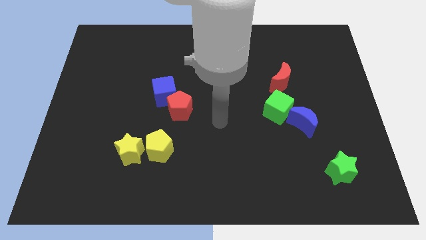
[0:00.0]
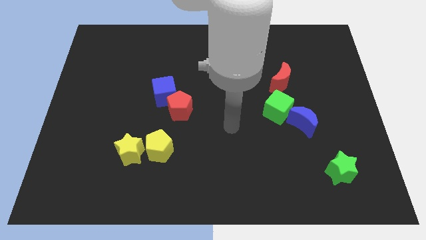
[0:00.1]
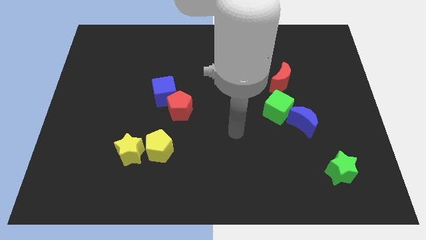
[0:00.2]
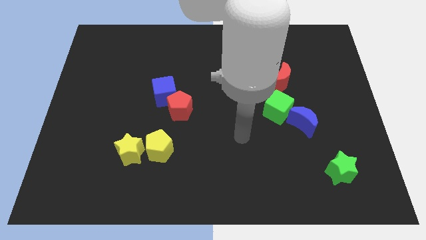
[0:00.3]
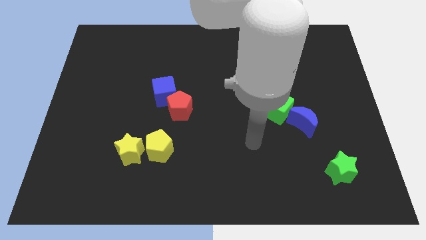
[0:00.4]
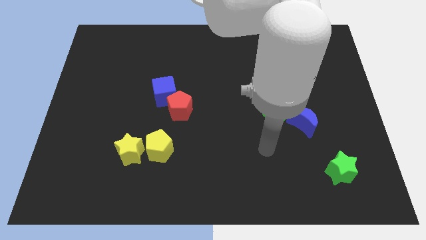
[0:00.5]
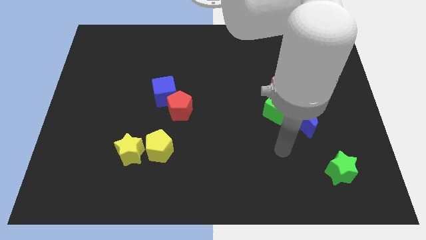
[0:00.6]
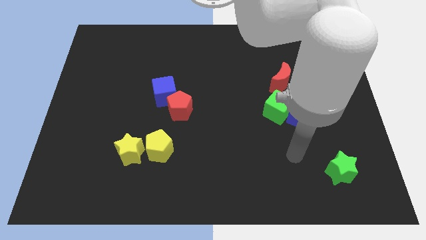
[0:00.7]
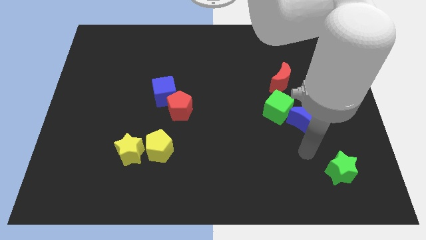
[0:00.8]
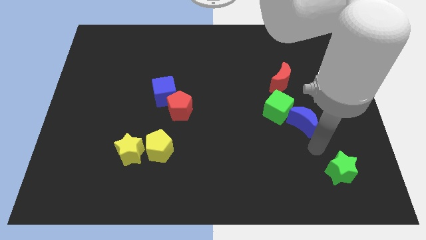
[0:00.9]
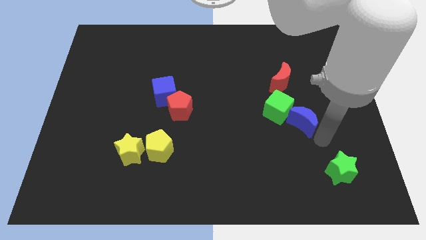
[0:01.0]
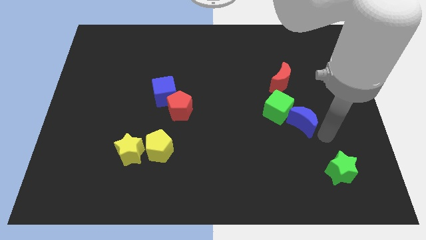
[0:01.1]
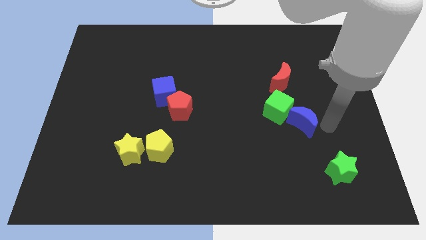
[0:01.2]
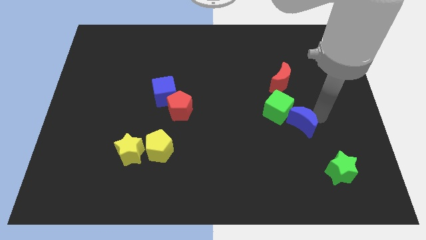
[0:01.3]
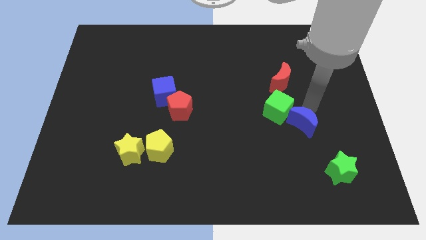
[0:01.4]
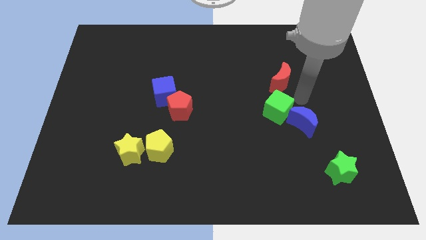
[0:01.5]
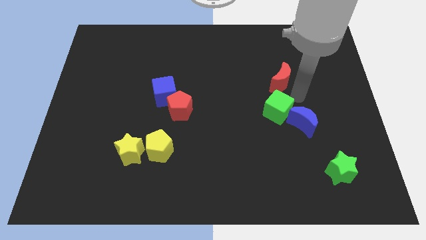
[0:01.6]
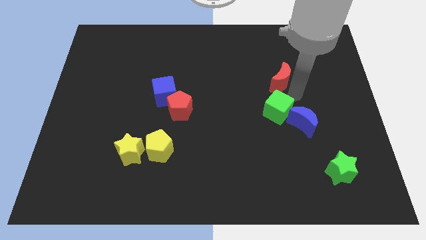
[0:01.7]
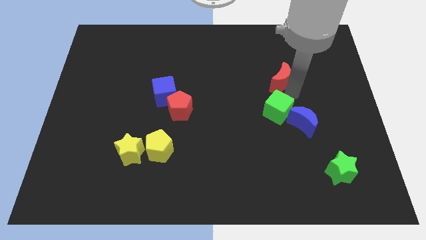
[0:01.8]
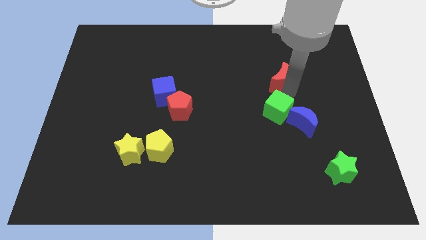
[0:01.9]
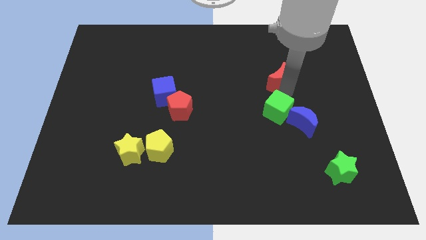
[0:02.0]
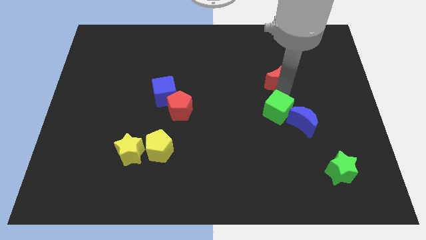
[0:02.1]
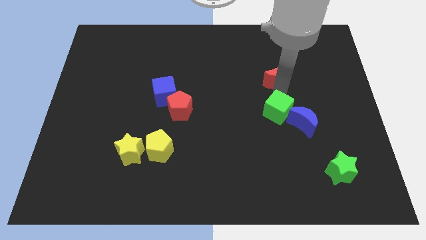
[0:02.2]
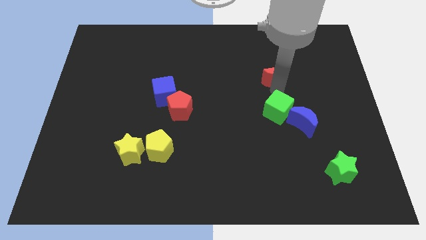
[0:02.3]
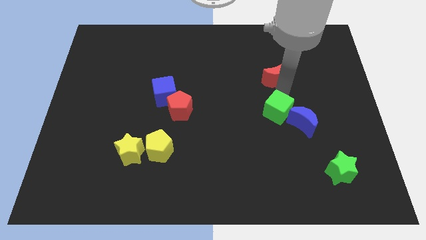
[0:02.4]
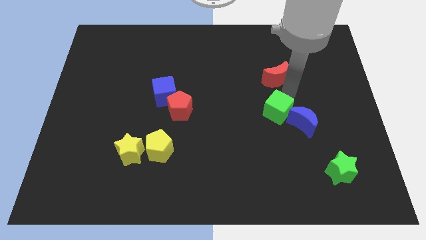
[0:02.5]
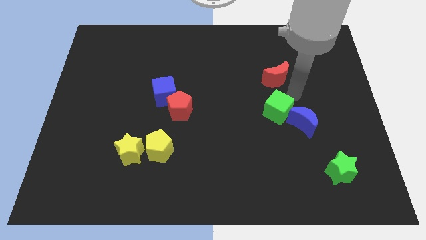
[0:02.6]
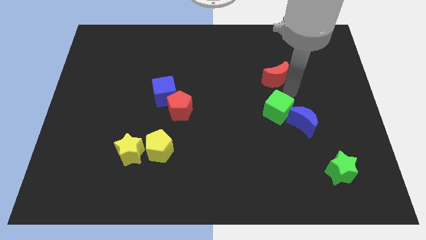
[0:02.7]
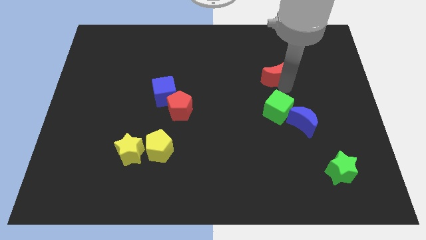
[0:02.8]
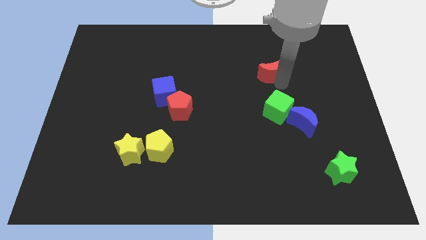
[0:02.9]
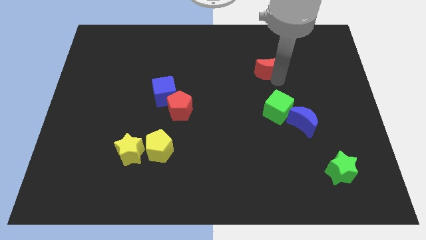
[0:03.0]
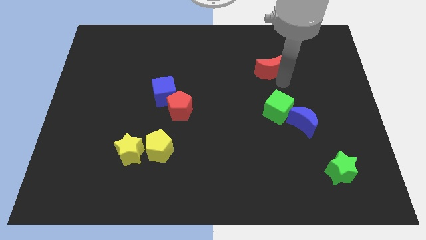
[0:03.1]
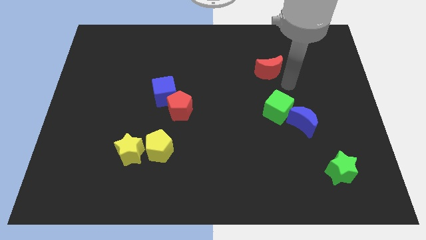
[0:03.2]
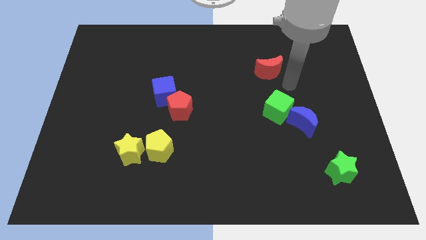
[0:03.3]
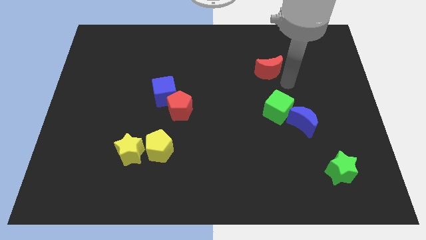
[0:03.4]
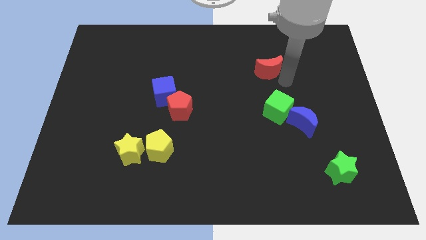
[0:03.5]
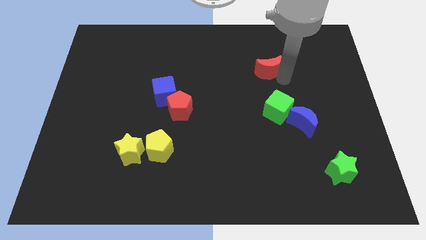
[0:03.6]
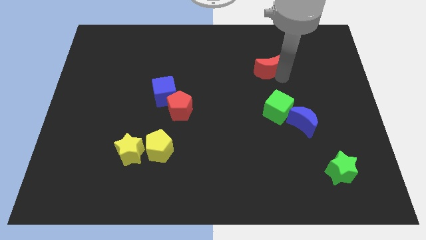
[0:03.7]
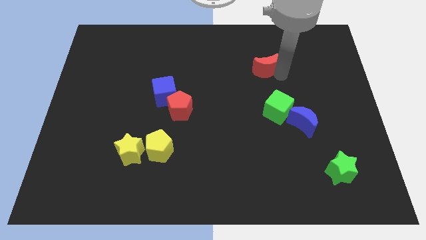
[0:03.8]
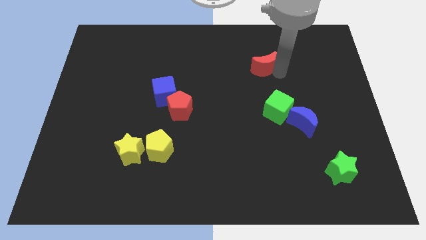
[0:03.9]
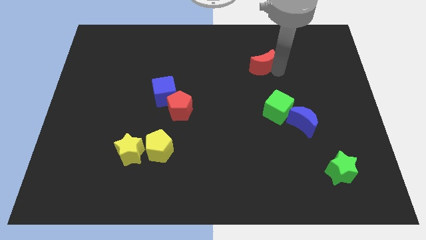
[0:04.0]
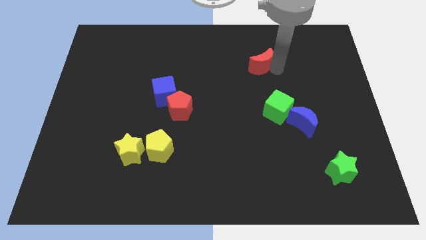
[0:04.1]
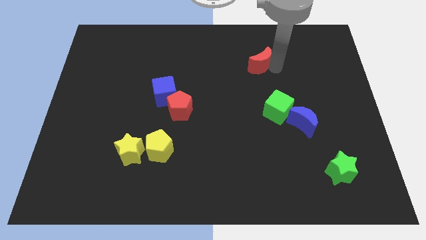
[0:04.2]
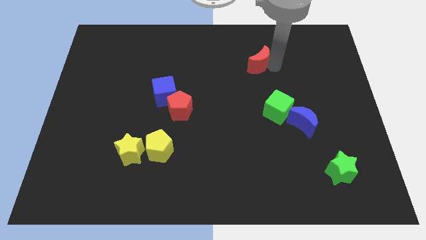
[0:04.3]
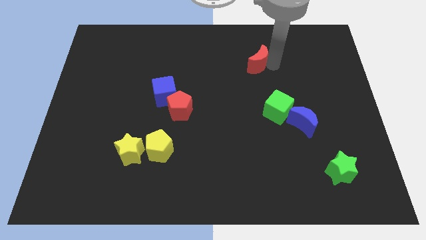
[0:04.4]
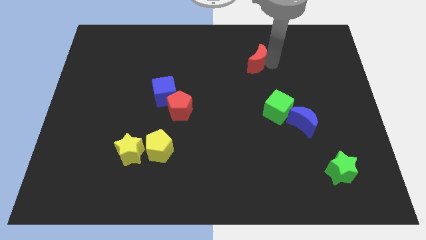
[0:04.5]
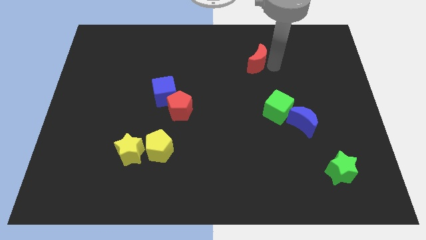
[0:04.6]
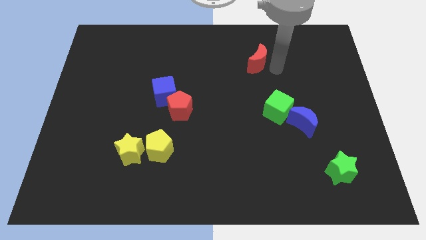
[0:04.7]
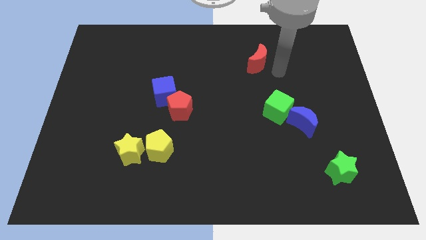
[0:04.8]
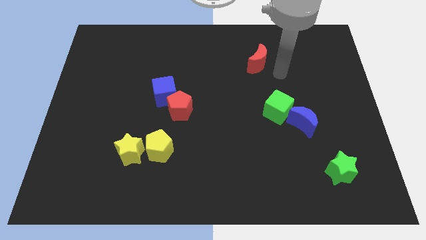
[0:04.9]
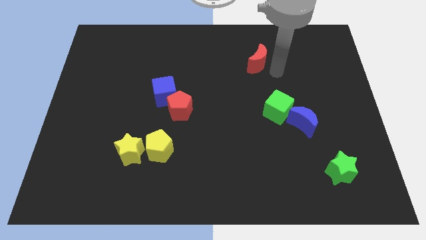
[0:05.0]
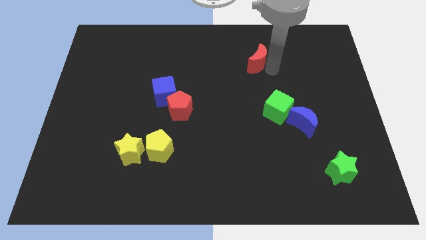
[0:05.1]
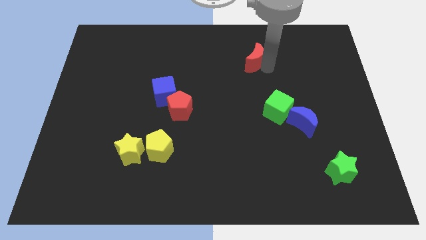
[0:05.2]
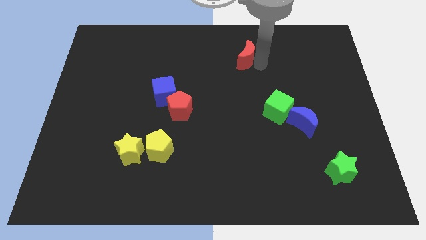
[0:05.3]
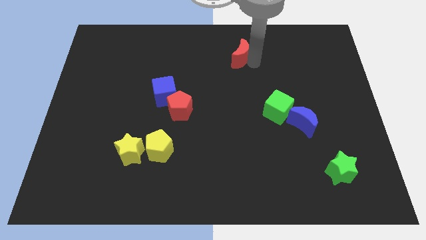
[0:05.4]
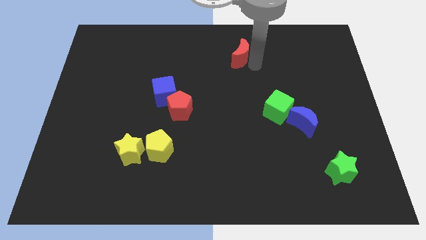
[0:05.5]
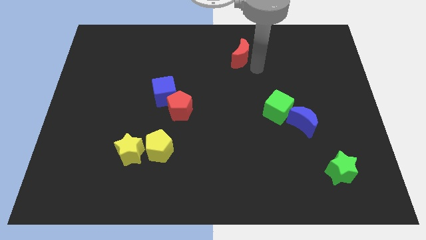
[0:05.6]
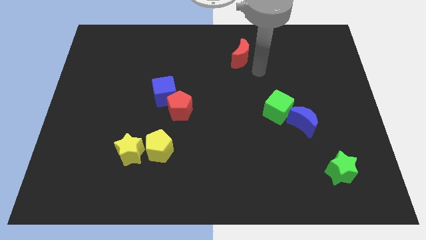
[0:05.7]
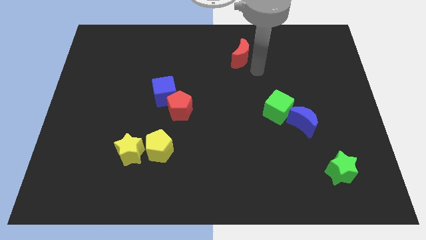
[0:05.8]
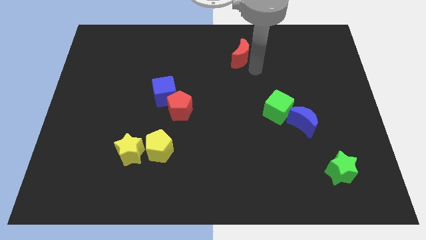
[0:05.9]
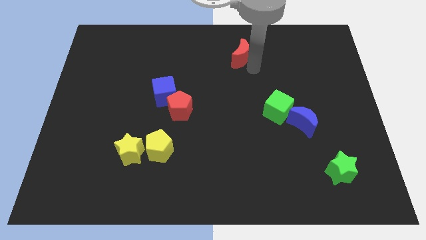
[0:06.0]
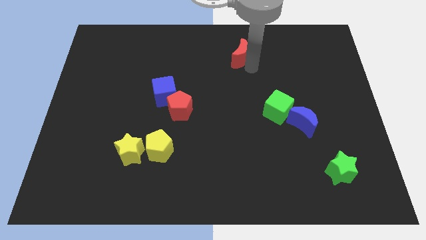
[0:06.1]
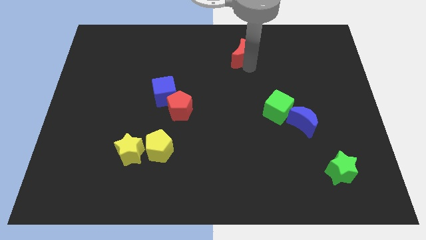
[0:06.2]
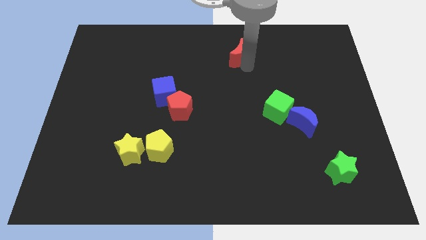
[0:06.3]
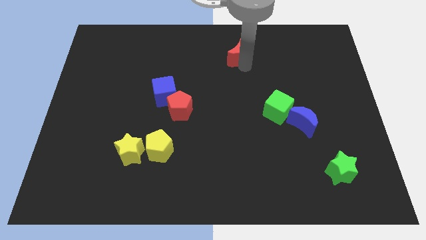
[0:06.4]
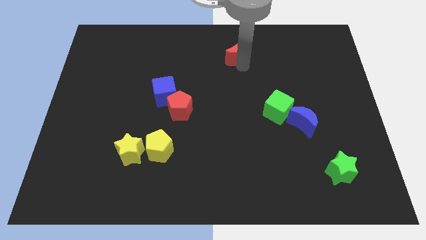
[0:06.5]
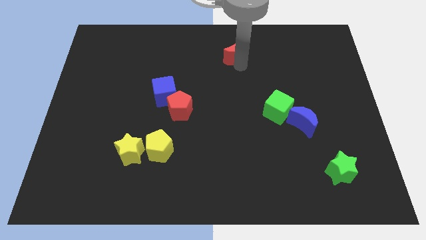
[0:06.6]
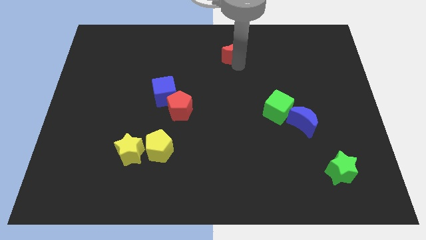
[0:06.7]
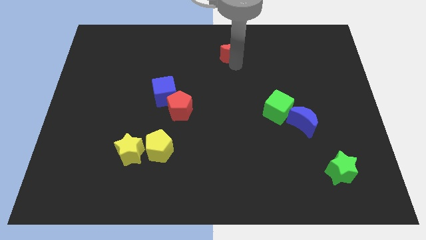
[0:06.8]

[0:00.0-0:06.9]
move the red moon to the towards your base
